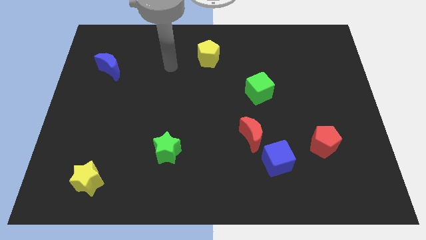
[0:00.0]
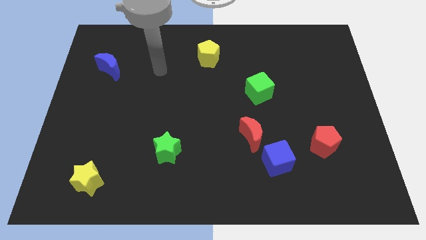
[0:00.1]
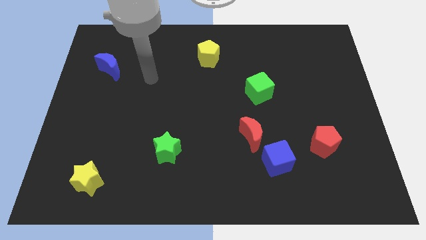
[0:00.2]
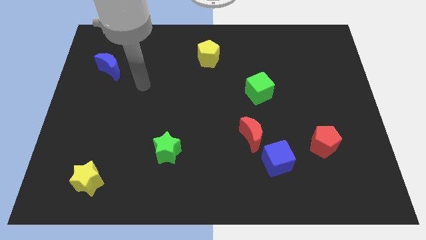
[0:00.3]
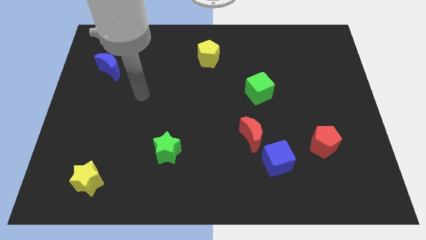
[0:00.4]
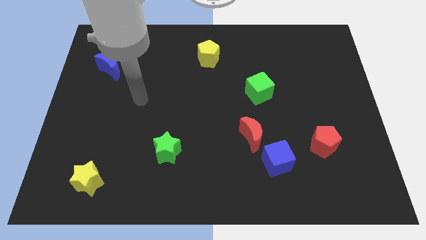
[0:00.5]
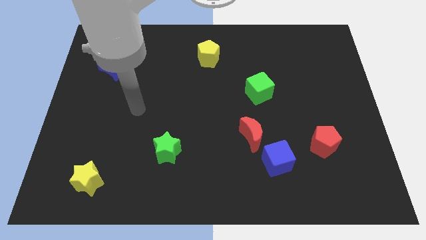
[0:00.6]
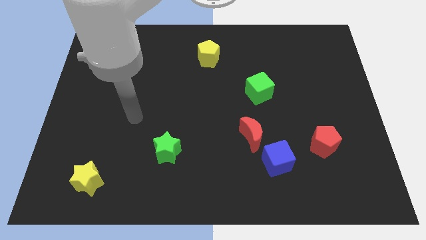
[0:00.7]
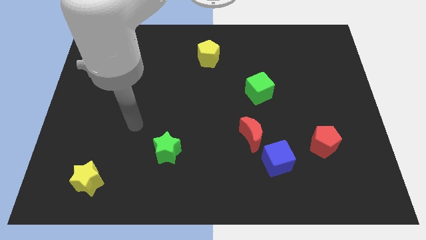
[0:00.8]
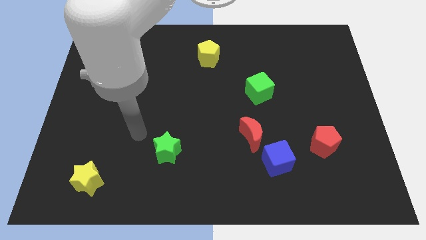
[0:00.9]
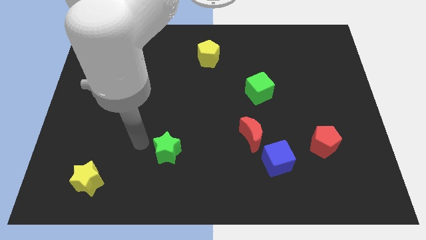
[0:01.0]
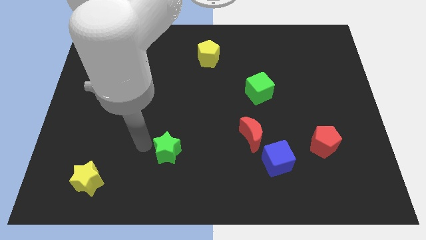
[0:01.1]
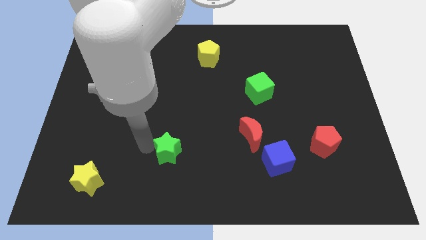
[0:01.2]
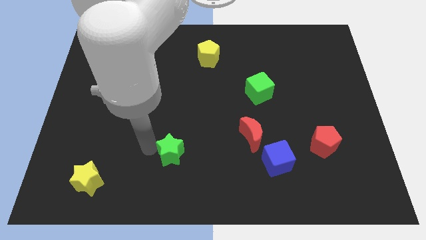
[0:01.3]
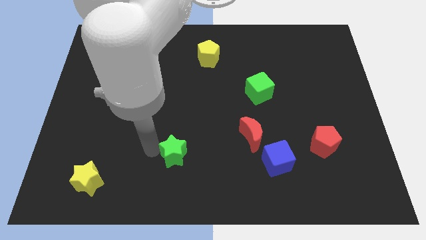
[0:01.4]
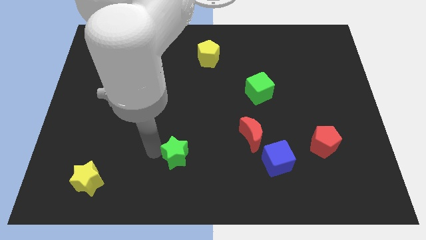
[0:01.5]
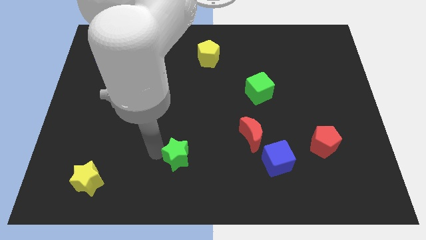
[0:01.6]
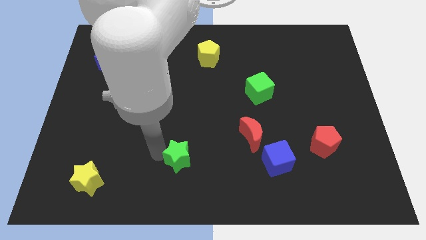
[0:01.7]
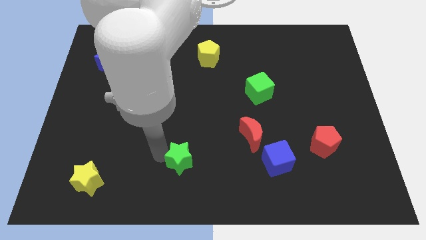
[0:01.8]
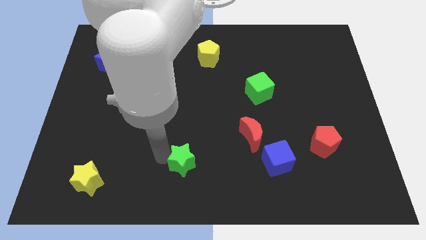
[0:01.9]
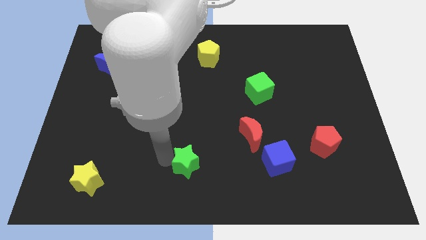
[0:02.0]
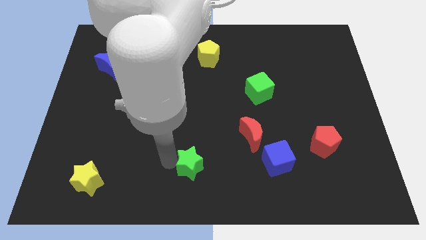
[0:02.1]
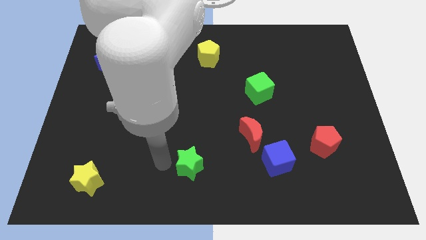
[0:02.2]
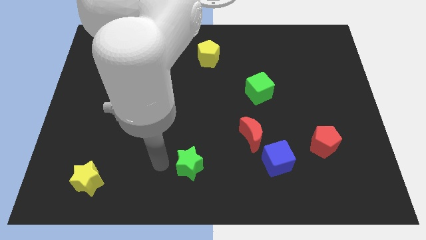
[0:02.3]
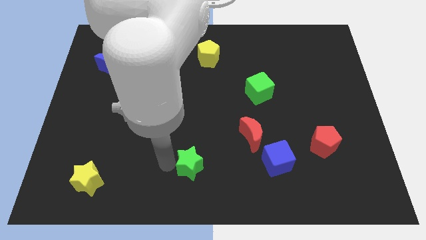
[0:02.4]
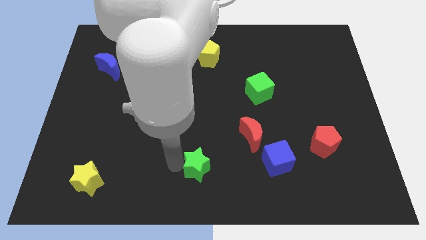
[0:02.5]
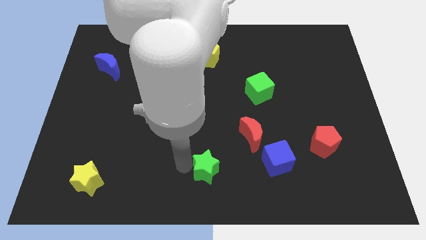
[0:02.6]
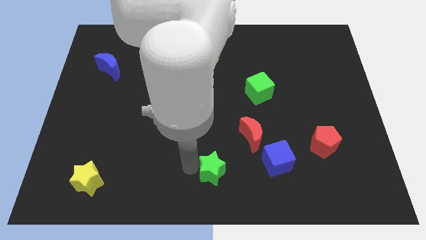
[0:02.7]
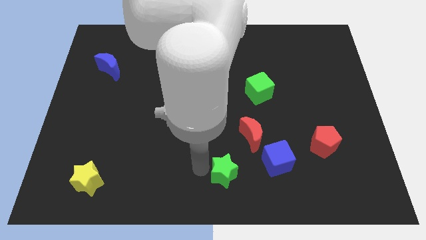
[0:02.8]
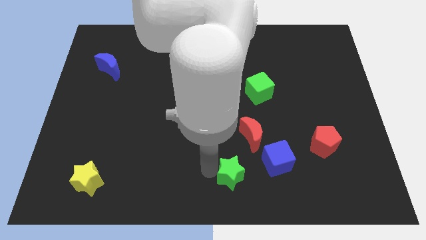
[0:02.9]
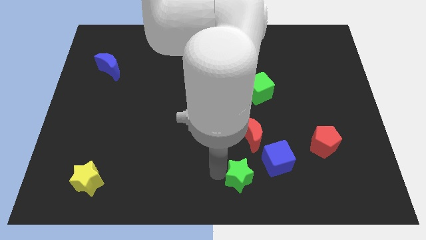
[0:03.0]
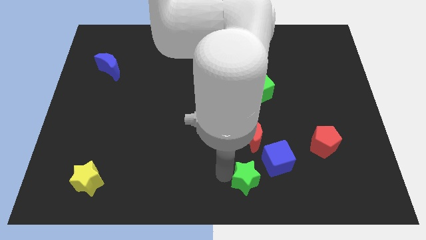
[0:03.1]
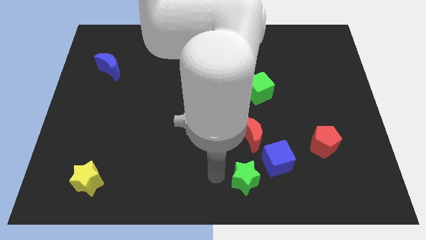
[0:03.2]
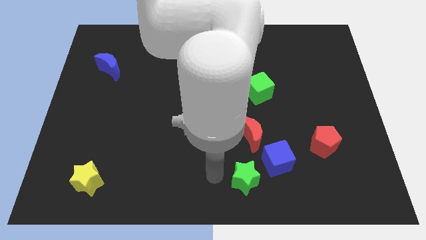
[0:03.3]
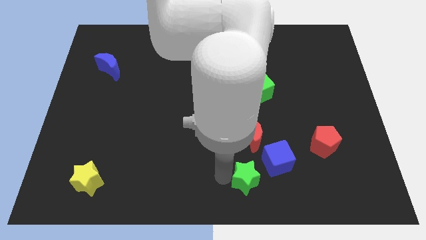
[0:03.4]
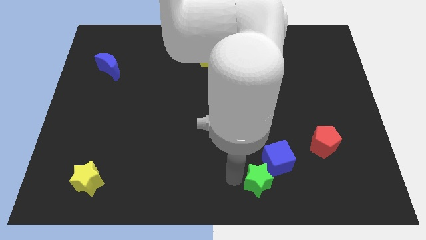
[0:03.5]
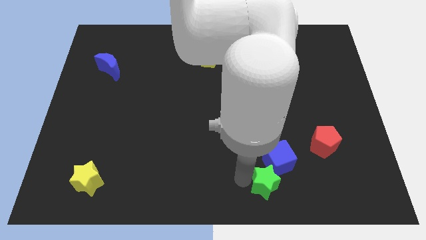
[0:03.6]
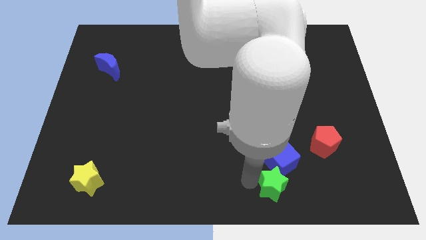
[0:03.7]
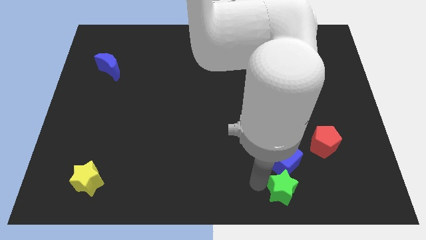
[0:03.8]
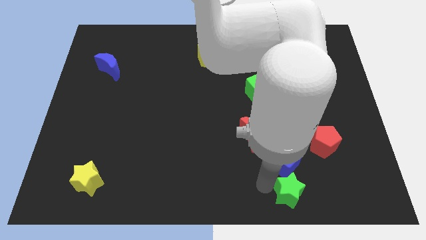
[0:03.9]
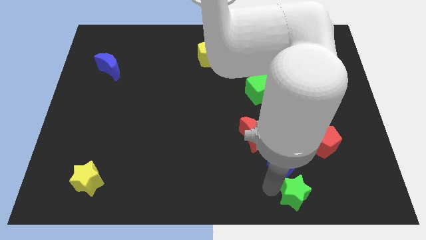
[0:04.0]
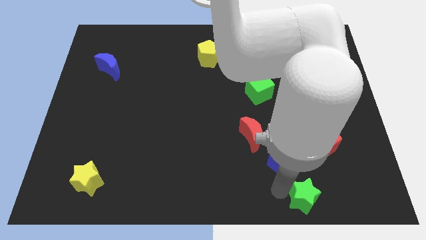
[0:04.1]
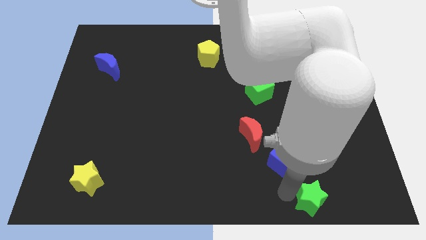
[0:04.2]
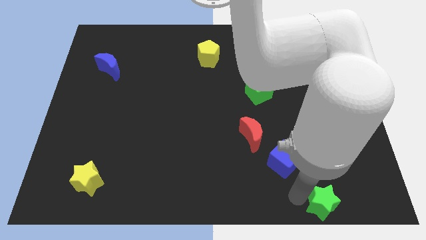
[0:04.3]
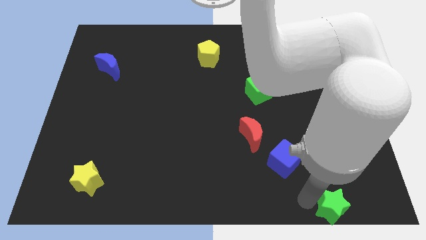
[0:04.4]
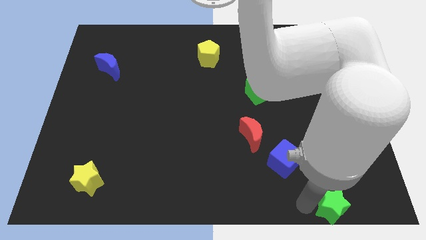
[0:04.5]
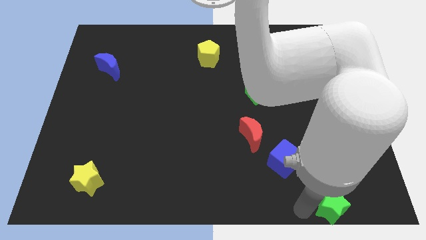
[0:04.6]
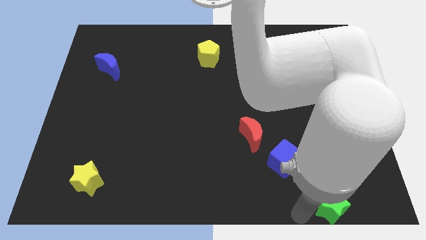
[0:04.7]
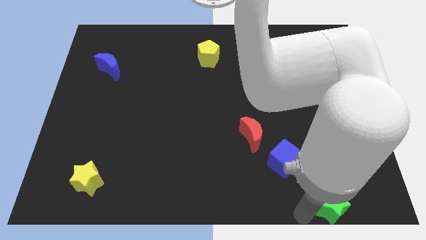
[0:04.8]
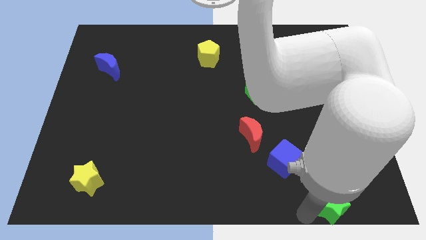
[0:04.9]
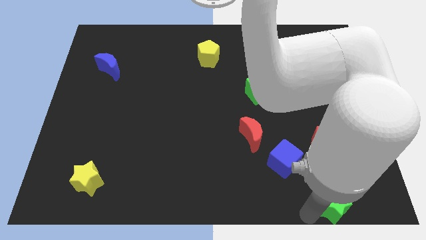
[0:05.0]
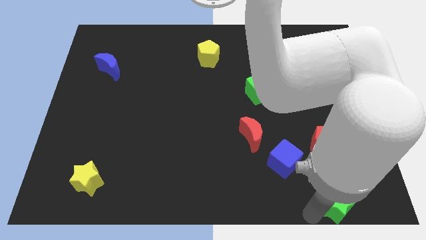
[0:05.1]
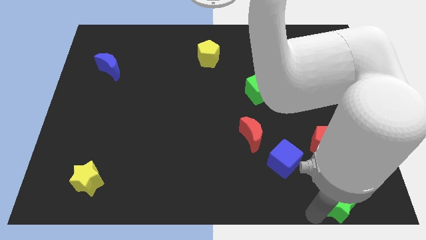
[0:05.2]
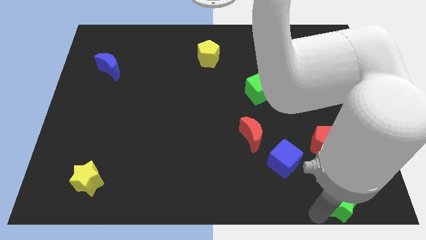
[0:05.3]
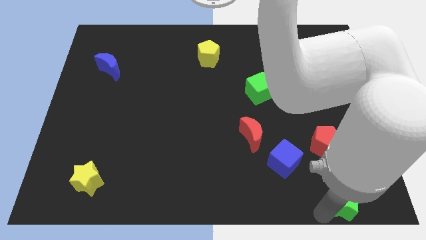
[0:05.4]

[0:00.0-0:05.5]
move the green star to the bottom right of the board

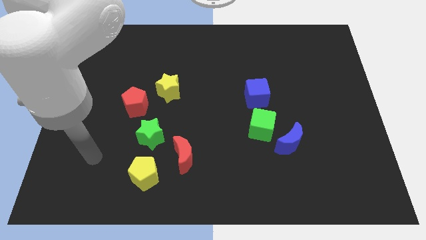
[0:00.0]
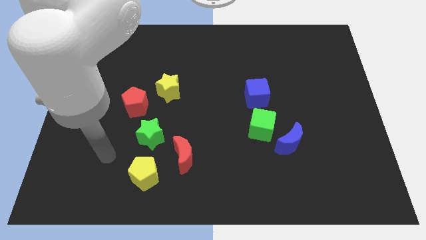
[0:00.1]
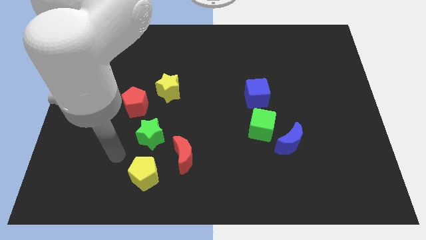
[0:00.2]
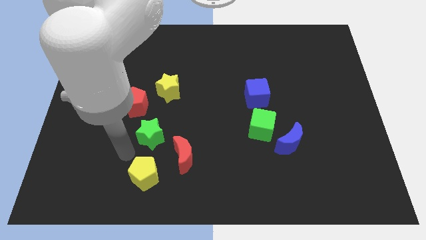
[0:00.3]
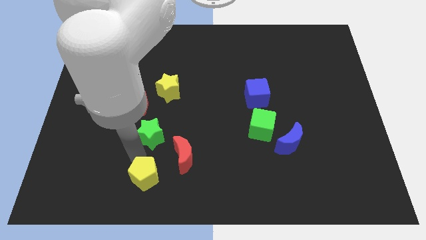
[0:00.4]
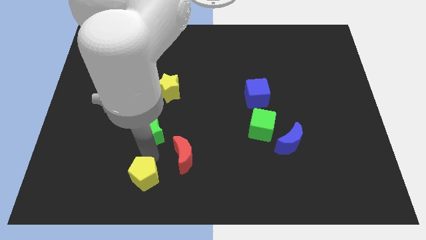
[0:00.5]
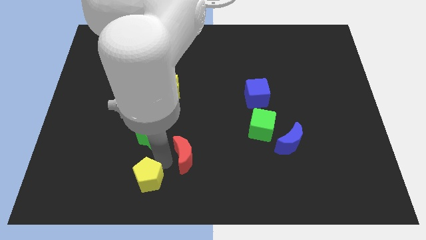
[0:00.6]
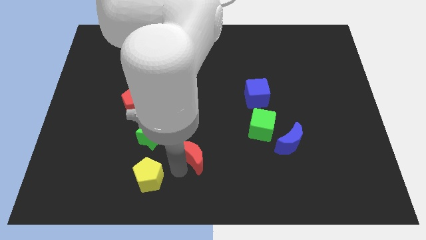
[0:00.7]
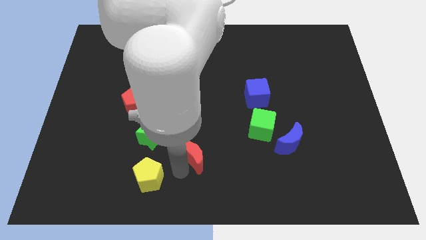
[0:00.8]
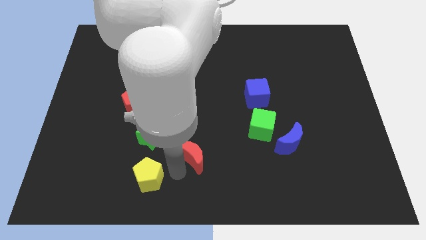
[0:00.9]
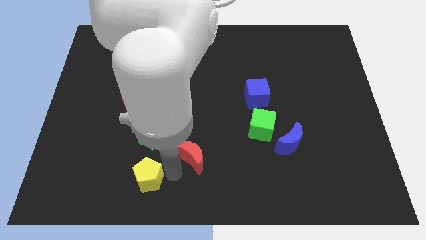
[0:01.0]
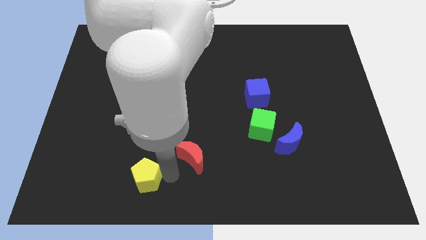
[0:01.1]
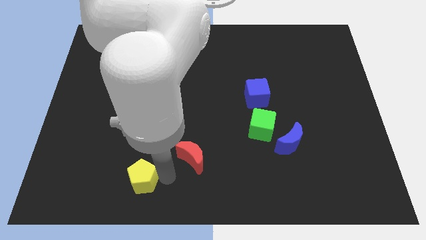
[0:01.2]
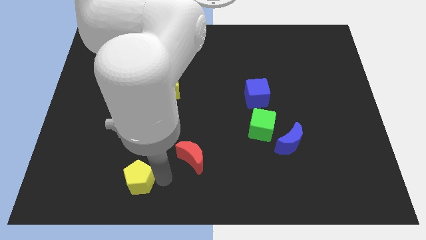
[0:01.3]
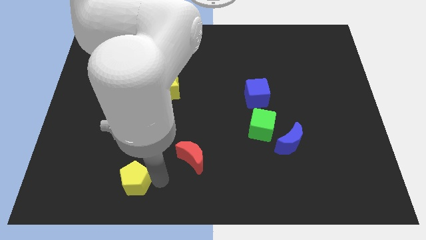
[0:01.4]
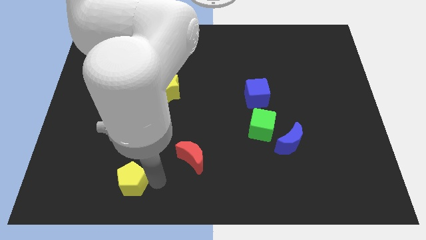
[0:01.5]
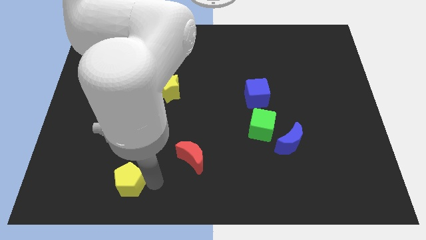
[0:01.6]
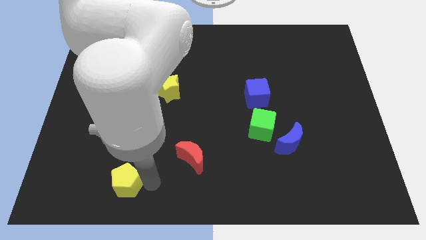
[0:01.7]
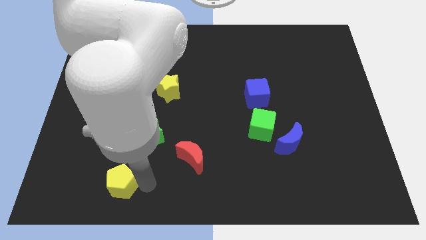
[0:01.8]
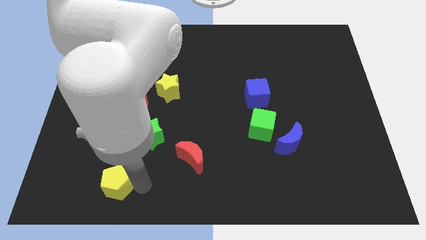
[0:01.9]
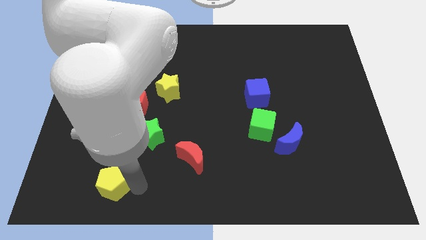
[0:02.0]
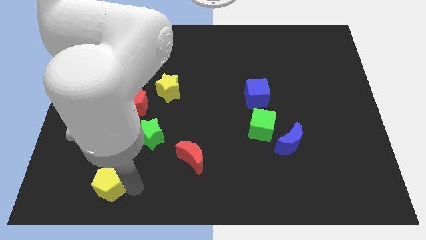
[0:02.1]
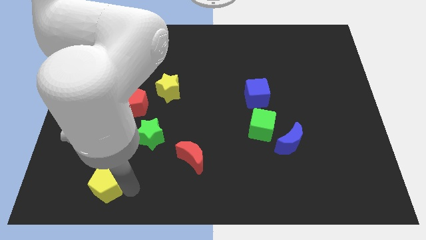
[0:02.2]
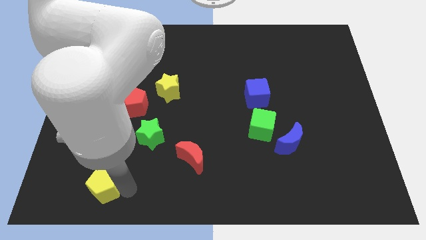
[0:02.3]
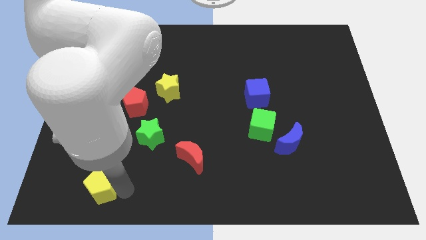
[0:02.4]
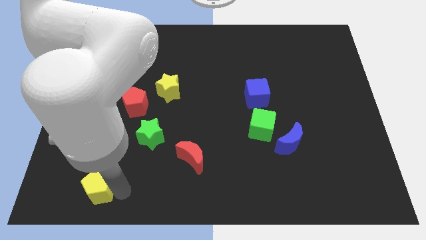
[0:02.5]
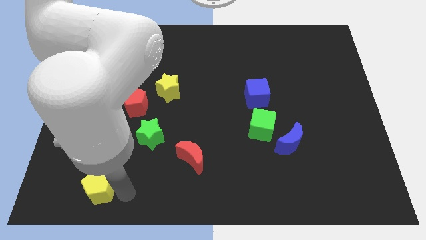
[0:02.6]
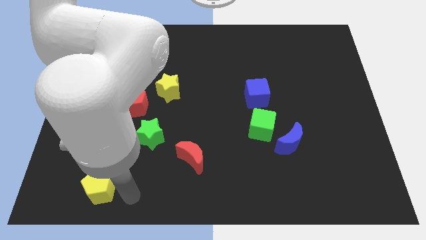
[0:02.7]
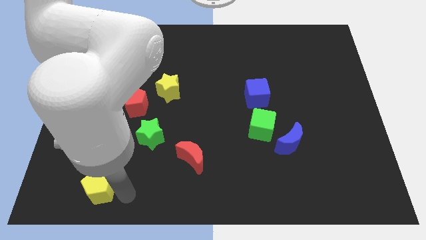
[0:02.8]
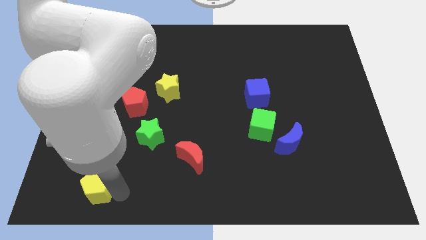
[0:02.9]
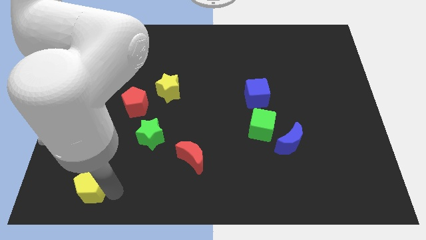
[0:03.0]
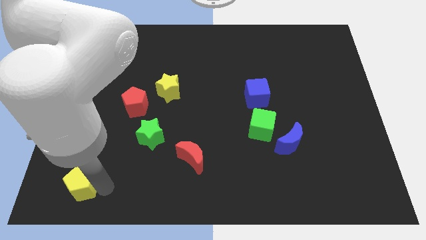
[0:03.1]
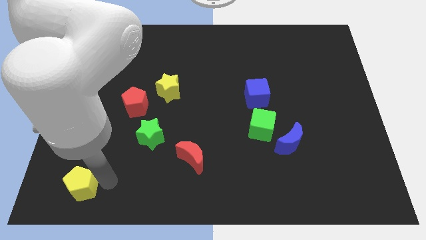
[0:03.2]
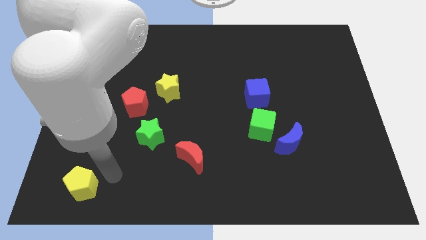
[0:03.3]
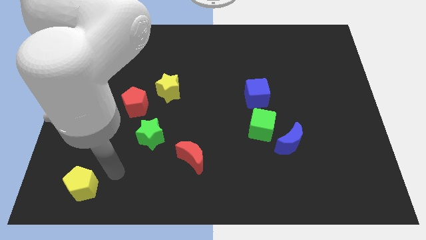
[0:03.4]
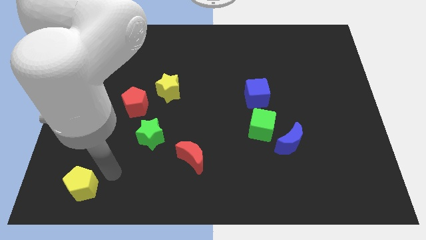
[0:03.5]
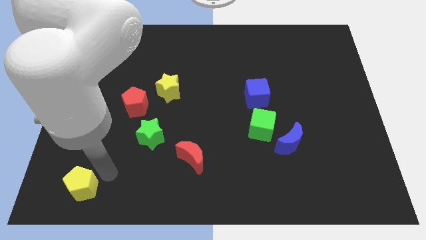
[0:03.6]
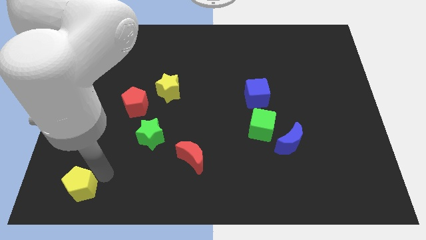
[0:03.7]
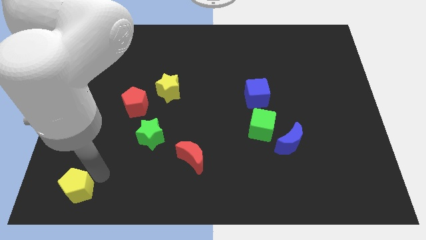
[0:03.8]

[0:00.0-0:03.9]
move the yellow pentagon to the bottom left corner
